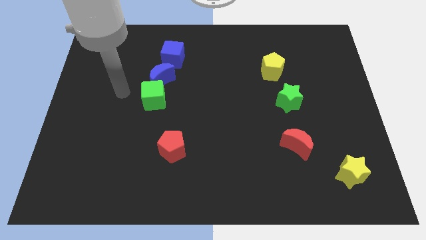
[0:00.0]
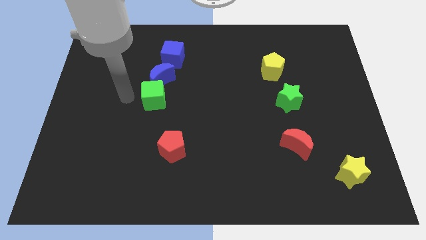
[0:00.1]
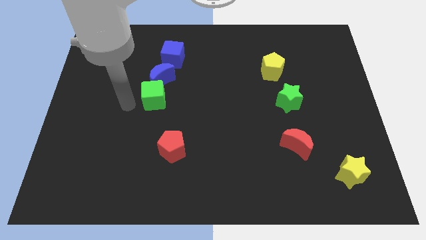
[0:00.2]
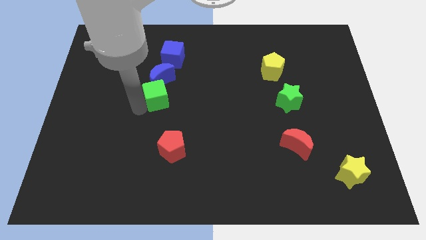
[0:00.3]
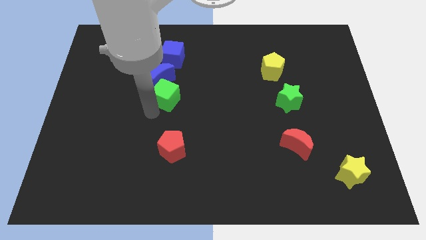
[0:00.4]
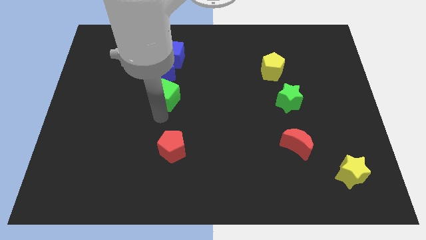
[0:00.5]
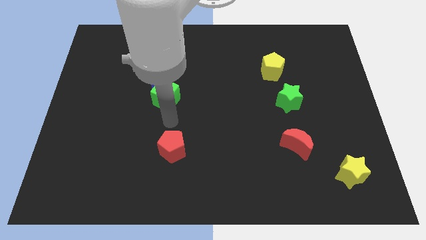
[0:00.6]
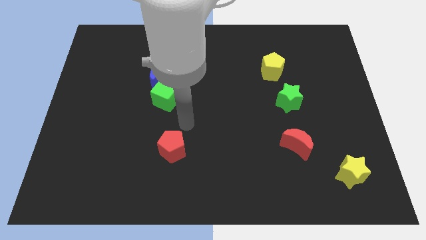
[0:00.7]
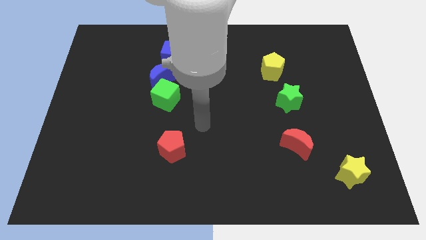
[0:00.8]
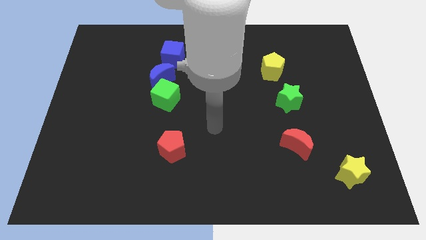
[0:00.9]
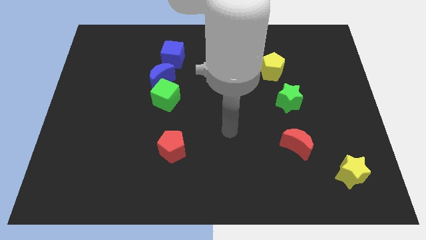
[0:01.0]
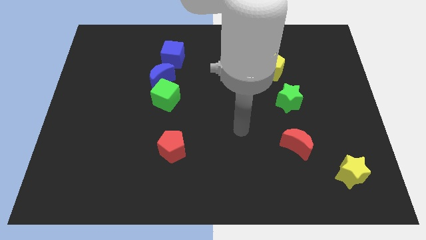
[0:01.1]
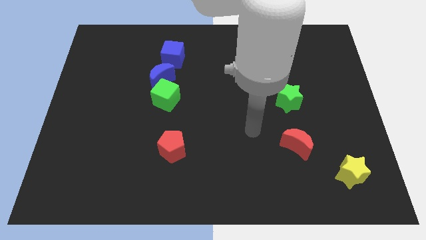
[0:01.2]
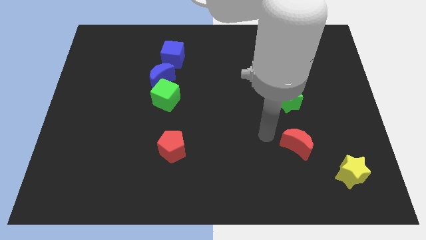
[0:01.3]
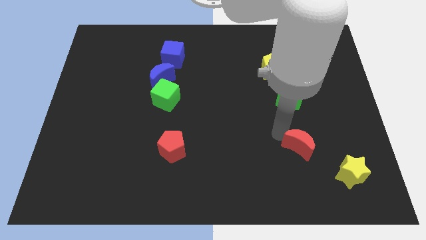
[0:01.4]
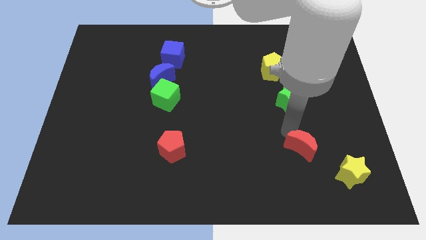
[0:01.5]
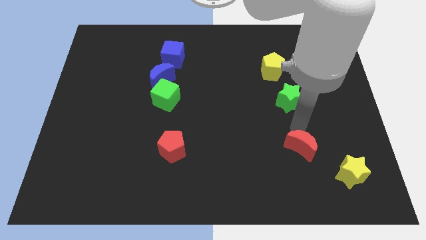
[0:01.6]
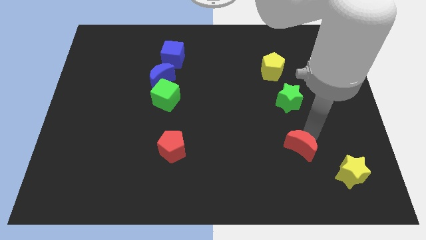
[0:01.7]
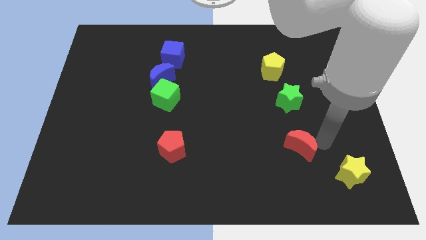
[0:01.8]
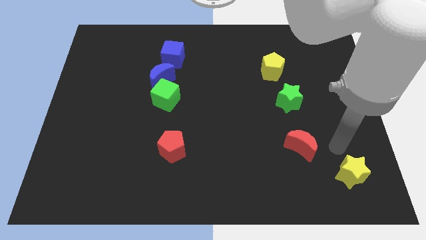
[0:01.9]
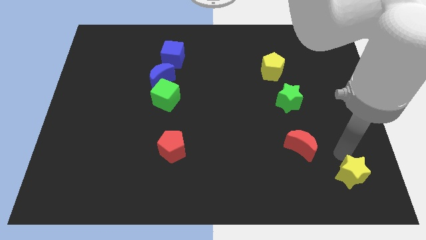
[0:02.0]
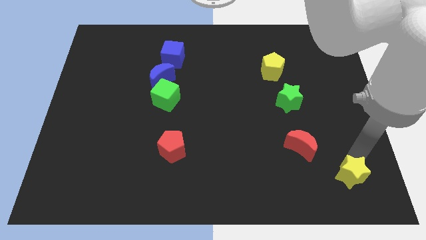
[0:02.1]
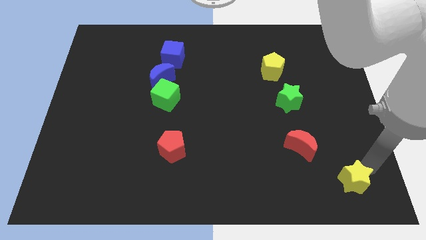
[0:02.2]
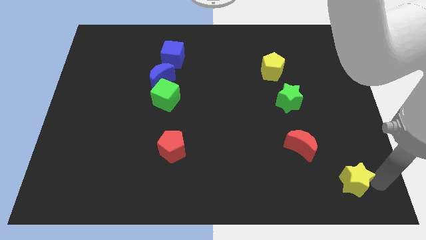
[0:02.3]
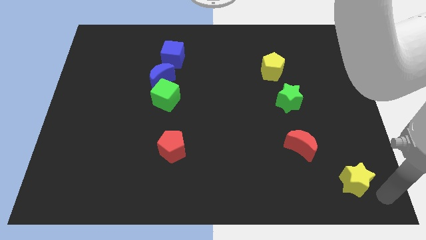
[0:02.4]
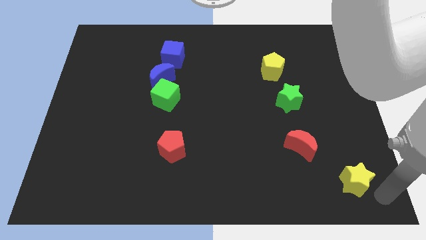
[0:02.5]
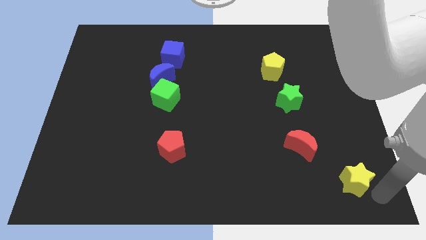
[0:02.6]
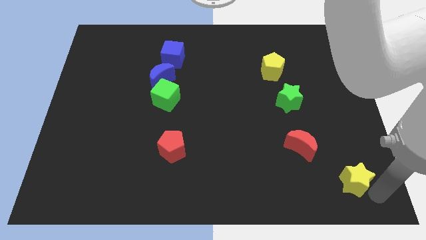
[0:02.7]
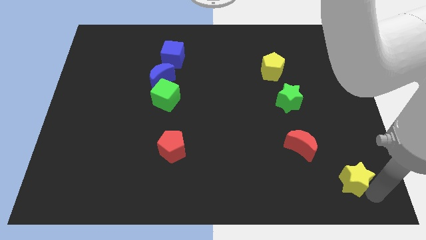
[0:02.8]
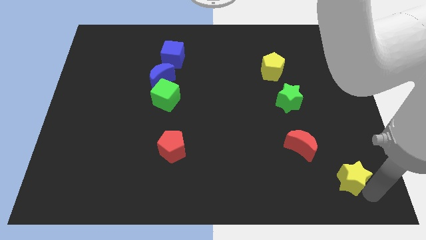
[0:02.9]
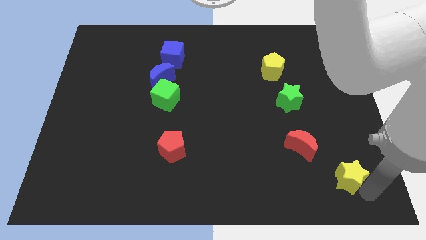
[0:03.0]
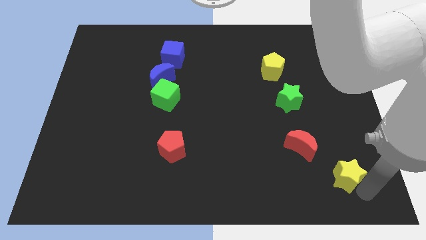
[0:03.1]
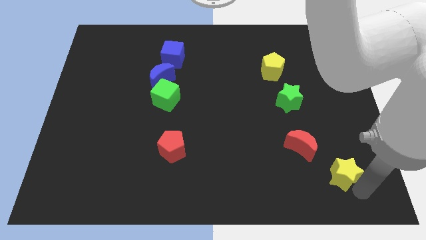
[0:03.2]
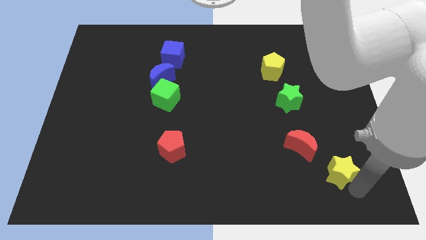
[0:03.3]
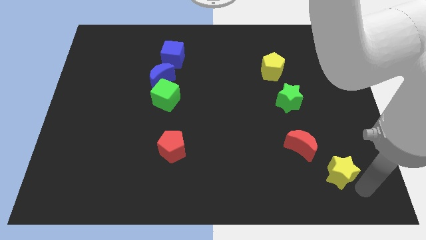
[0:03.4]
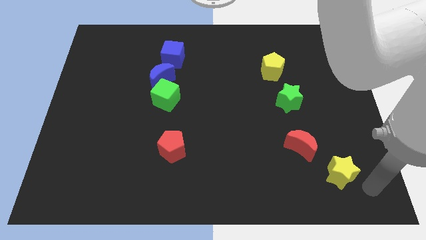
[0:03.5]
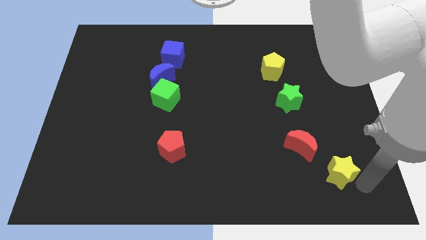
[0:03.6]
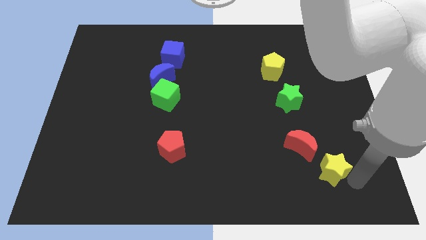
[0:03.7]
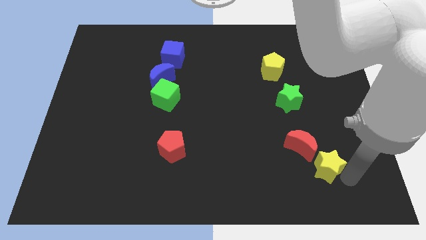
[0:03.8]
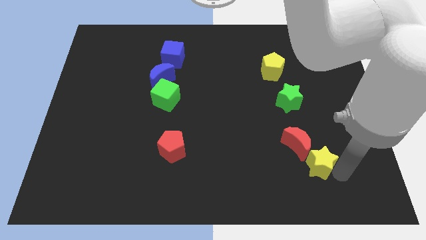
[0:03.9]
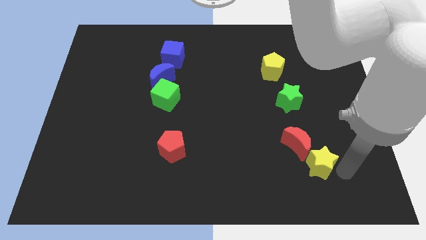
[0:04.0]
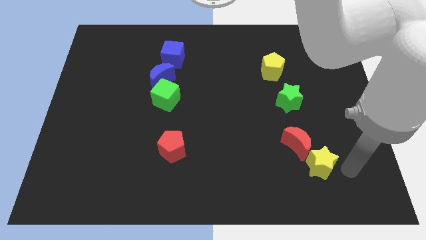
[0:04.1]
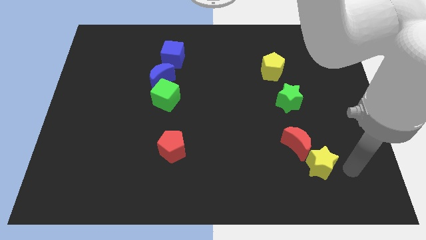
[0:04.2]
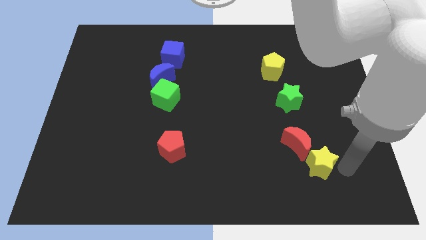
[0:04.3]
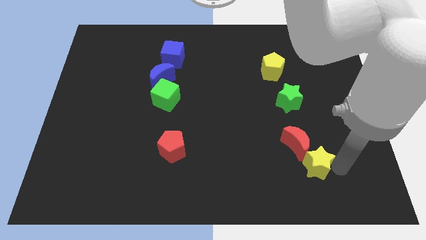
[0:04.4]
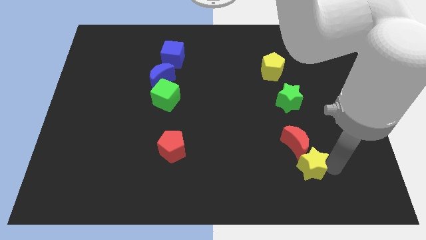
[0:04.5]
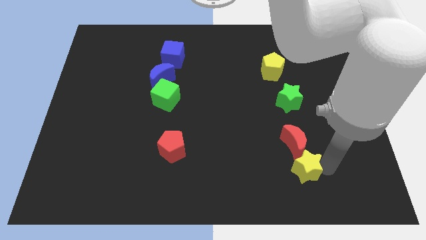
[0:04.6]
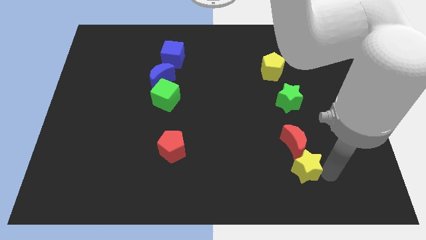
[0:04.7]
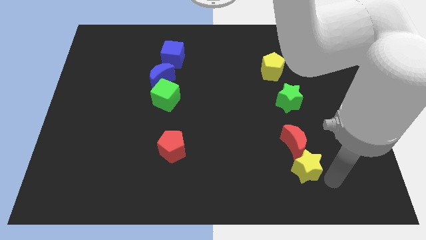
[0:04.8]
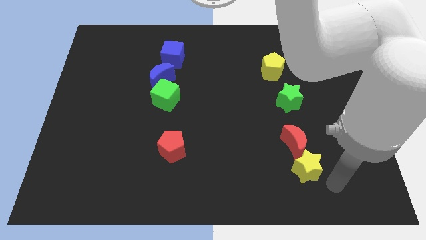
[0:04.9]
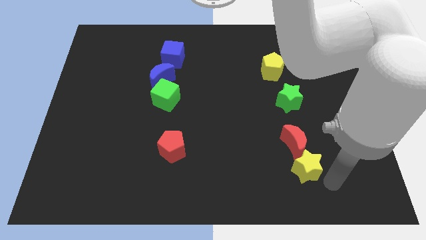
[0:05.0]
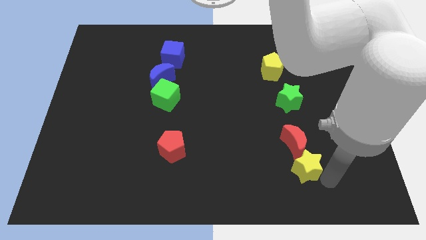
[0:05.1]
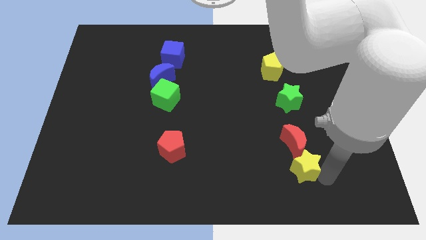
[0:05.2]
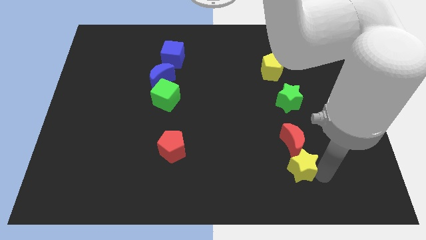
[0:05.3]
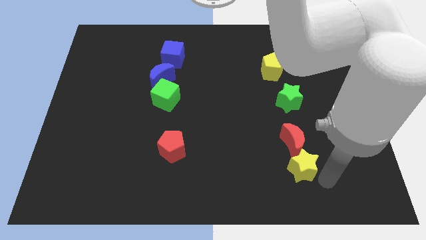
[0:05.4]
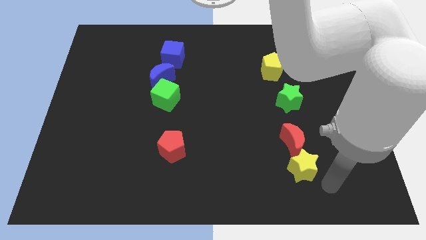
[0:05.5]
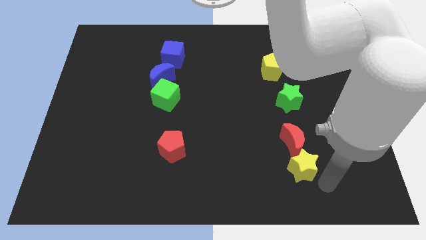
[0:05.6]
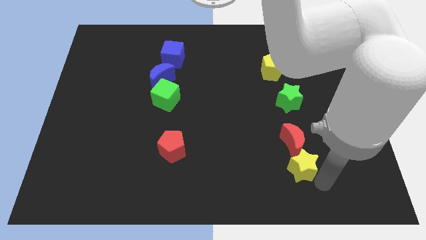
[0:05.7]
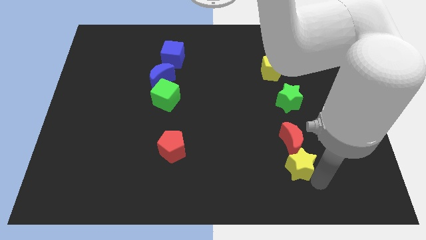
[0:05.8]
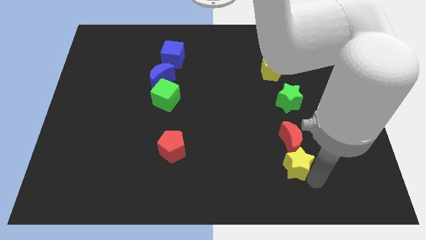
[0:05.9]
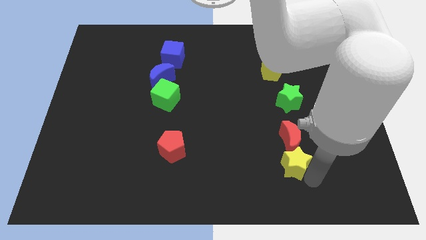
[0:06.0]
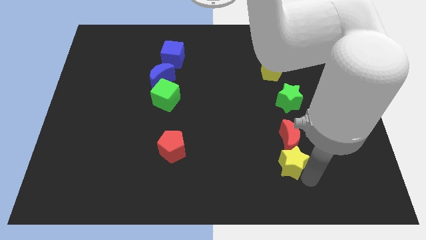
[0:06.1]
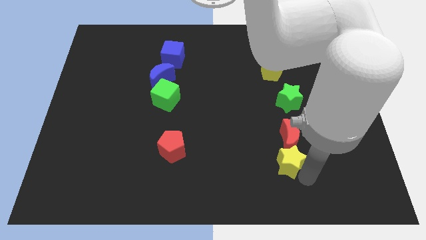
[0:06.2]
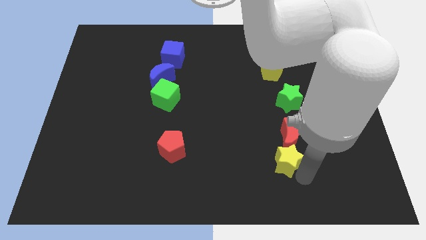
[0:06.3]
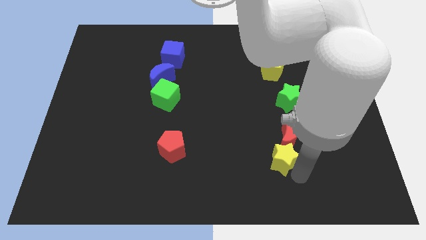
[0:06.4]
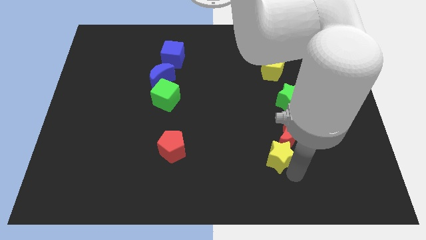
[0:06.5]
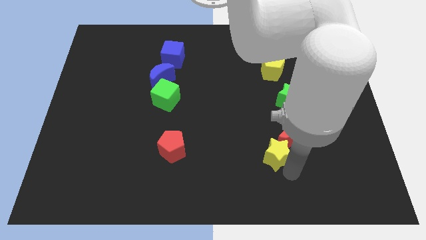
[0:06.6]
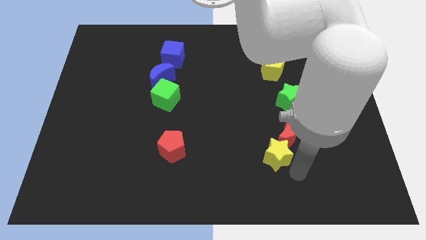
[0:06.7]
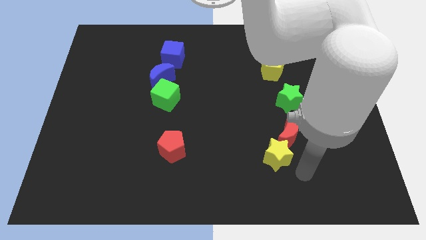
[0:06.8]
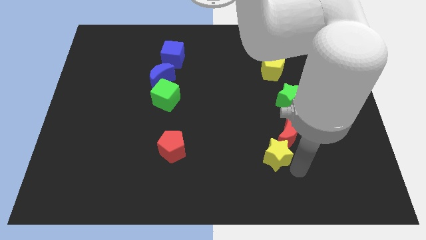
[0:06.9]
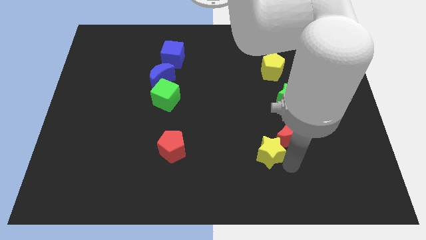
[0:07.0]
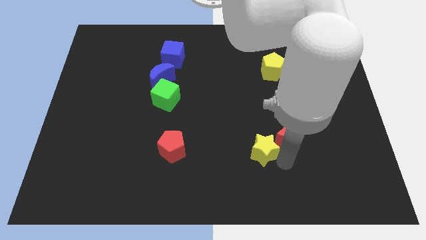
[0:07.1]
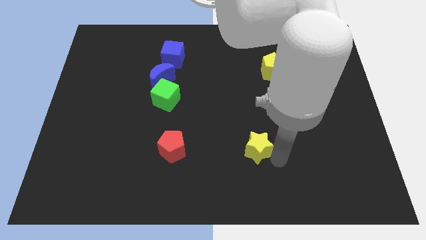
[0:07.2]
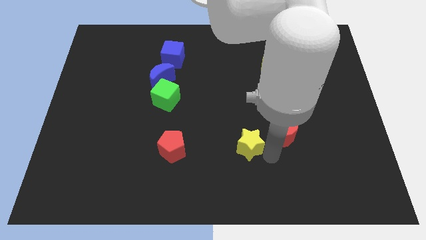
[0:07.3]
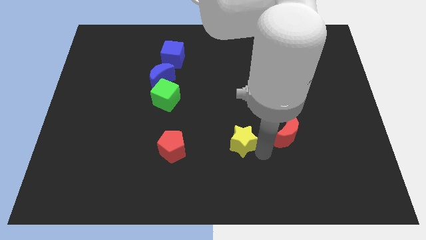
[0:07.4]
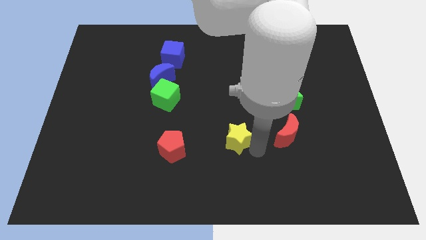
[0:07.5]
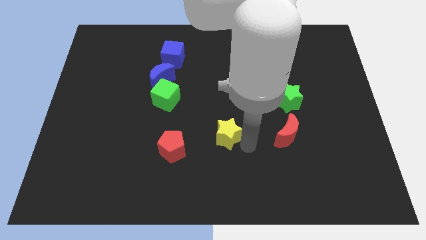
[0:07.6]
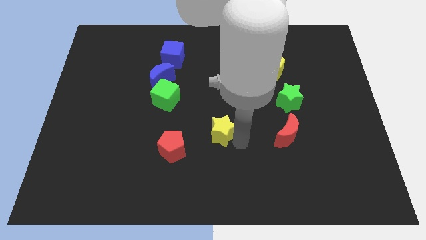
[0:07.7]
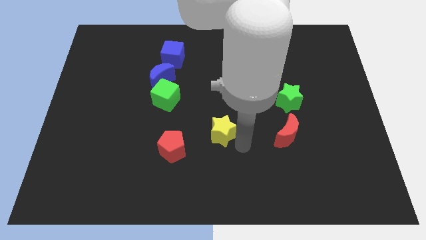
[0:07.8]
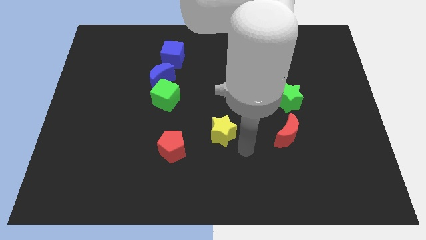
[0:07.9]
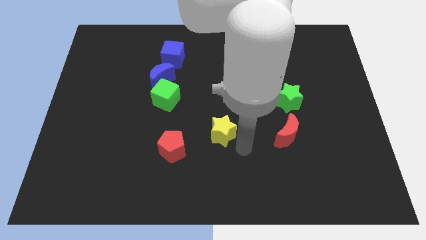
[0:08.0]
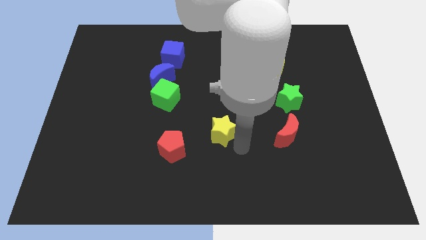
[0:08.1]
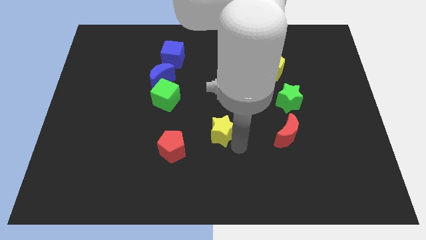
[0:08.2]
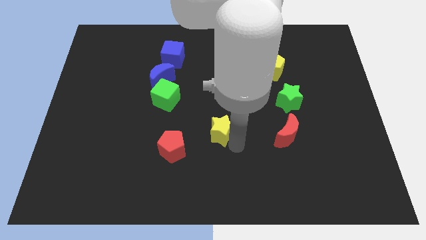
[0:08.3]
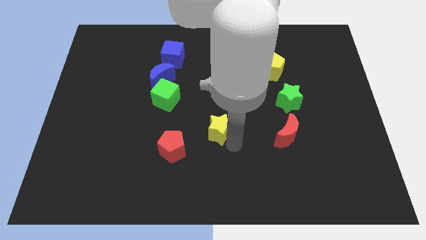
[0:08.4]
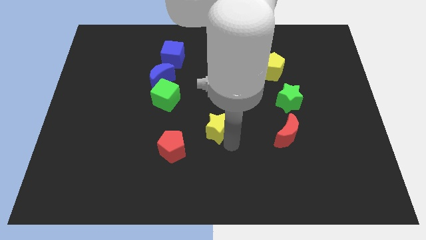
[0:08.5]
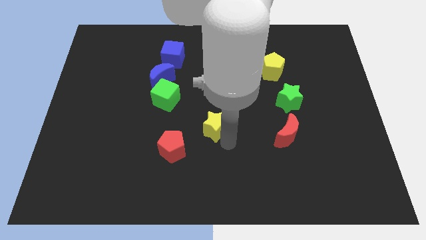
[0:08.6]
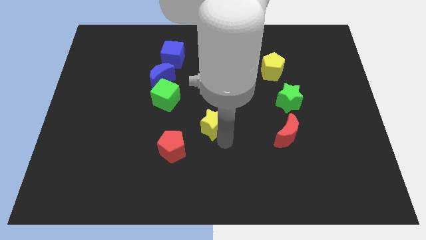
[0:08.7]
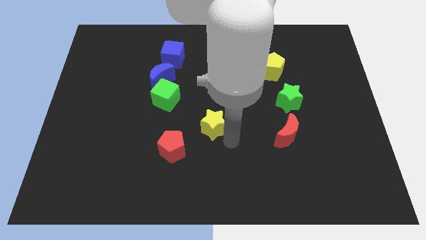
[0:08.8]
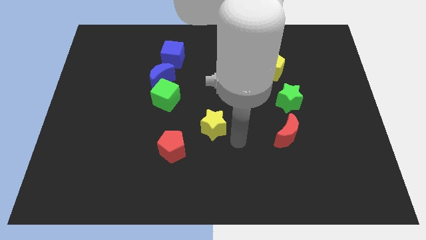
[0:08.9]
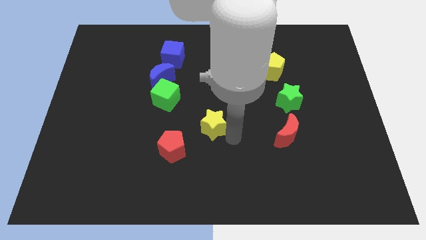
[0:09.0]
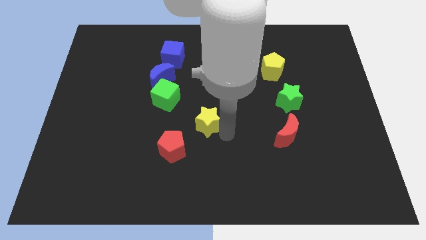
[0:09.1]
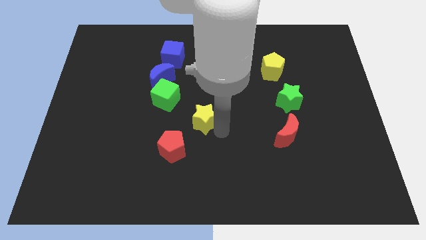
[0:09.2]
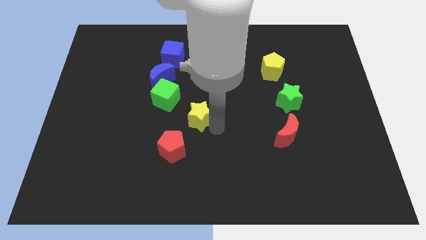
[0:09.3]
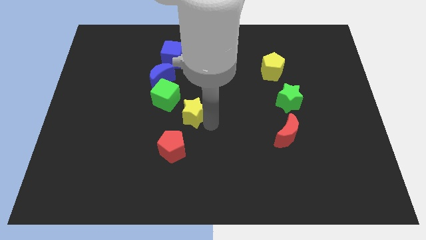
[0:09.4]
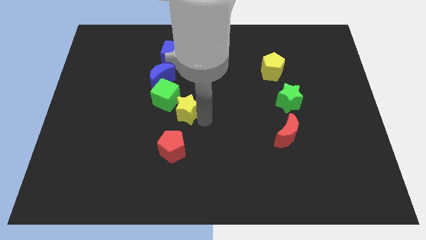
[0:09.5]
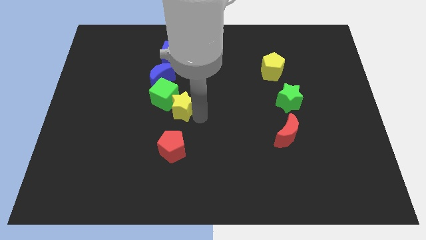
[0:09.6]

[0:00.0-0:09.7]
move the yellow star next to the green cube
